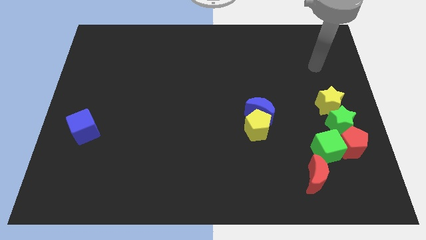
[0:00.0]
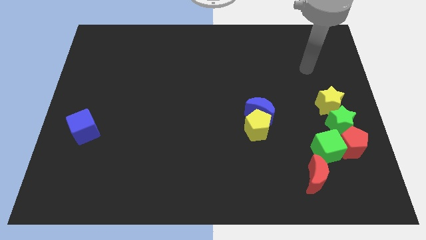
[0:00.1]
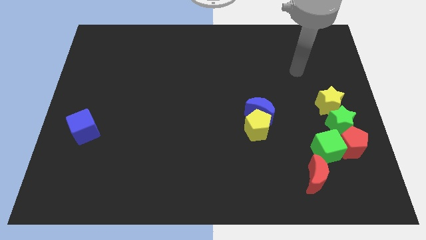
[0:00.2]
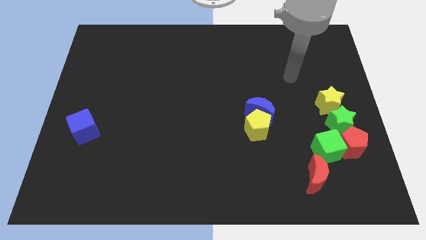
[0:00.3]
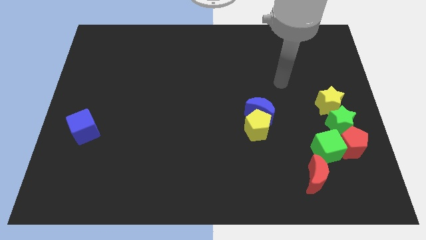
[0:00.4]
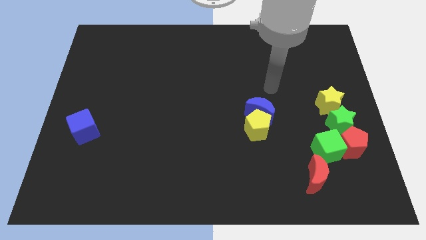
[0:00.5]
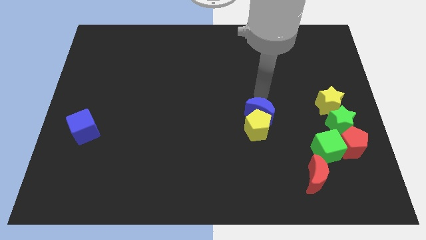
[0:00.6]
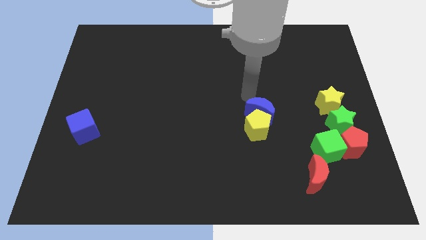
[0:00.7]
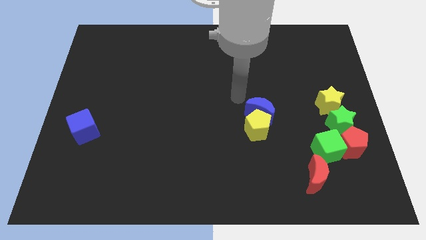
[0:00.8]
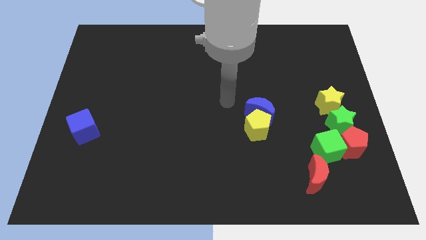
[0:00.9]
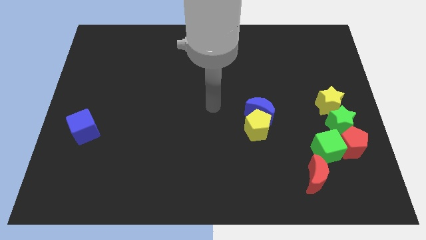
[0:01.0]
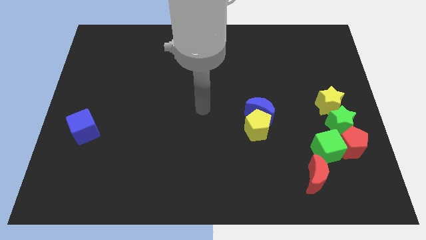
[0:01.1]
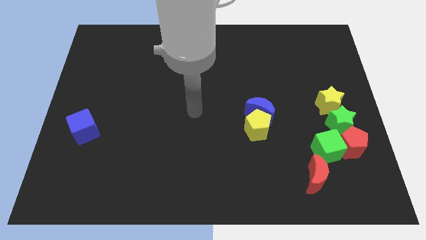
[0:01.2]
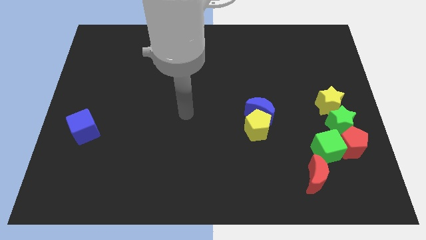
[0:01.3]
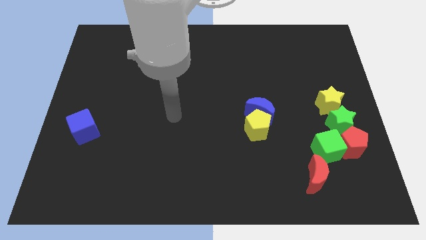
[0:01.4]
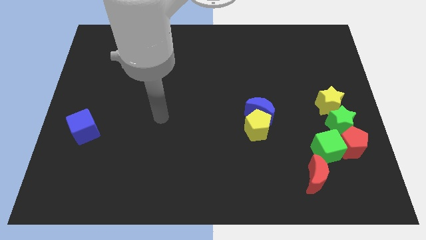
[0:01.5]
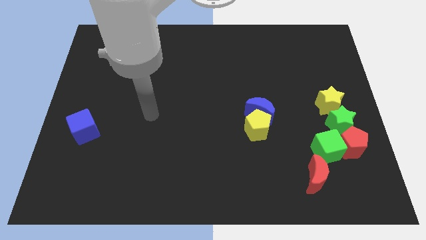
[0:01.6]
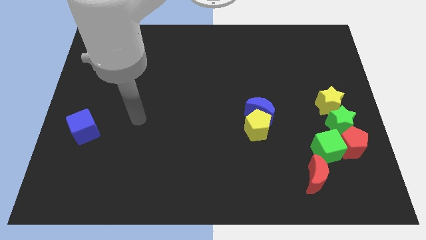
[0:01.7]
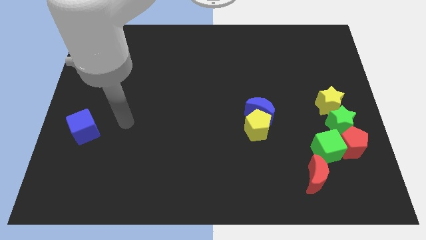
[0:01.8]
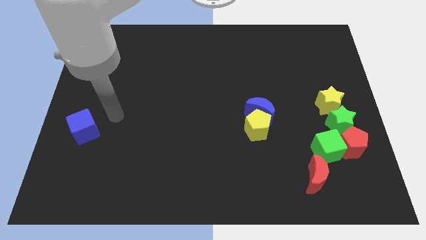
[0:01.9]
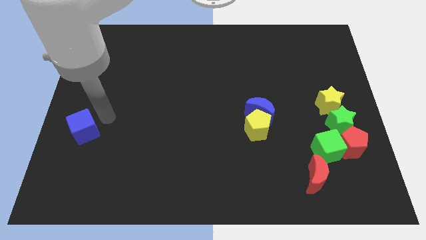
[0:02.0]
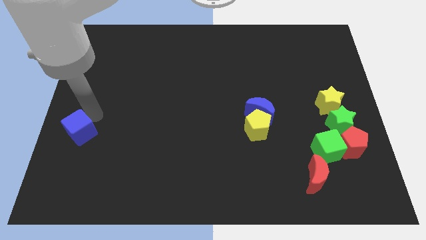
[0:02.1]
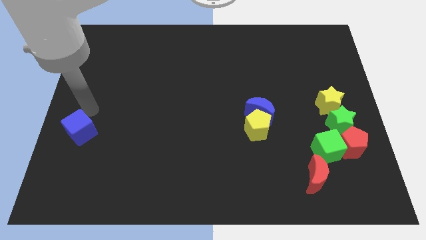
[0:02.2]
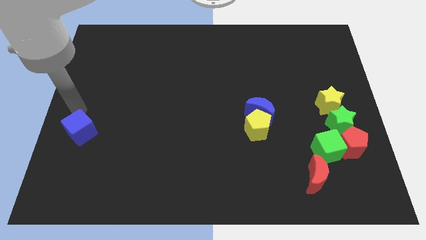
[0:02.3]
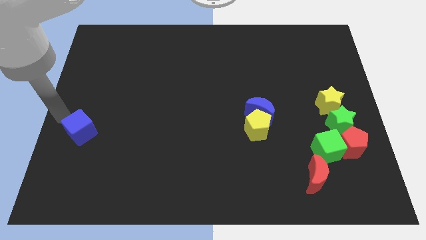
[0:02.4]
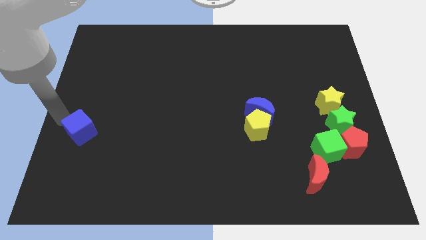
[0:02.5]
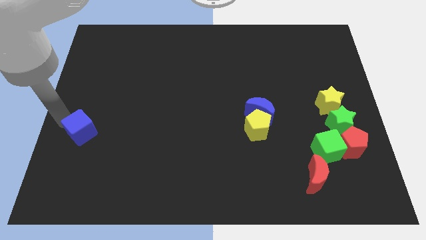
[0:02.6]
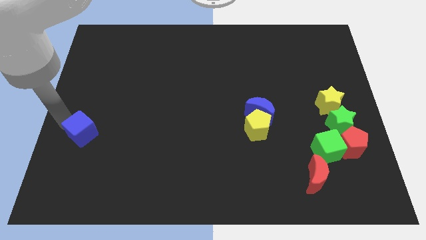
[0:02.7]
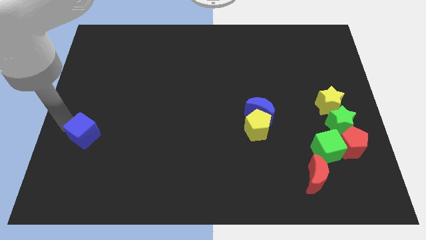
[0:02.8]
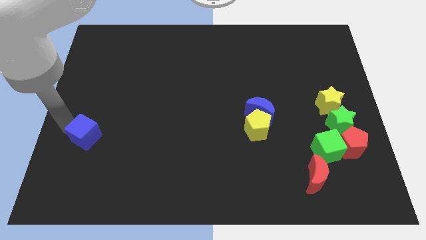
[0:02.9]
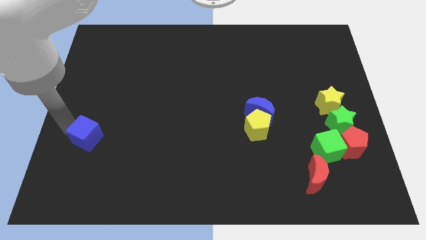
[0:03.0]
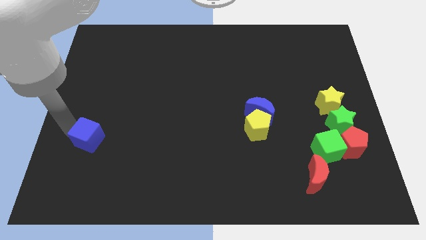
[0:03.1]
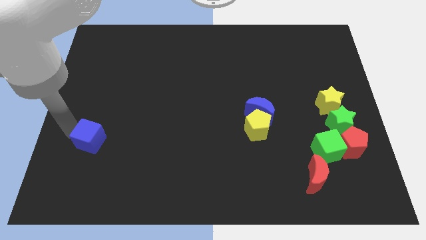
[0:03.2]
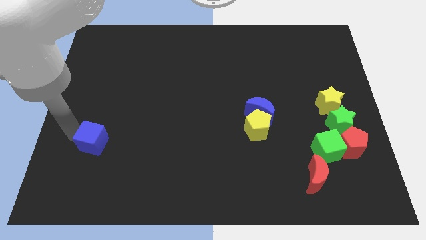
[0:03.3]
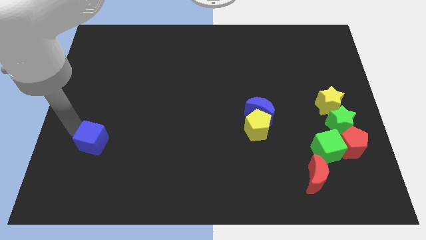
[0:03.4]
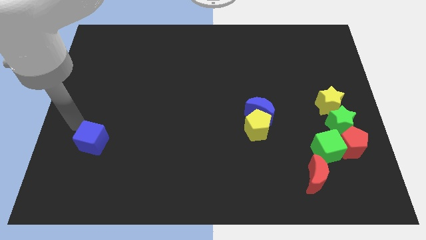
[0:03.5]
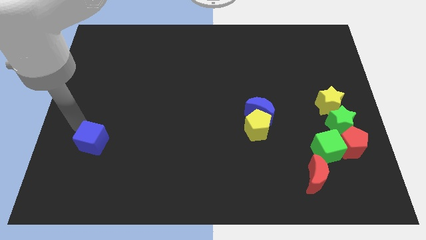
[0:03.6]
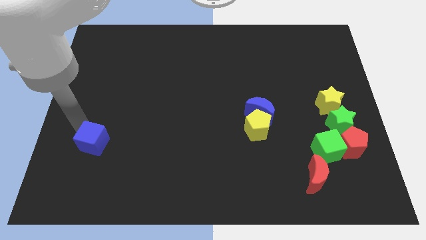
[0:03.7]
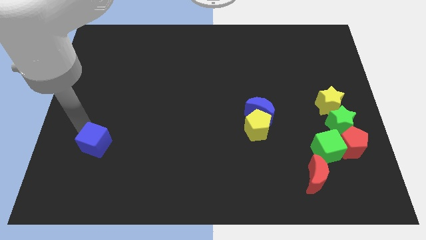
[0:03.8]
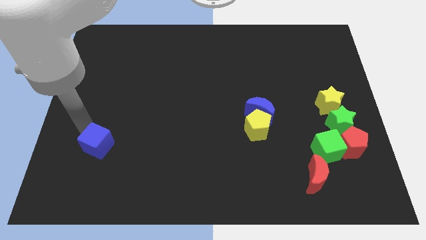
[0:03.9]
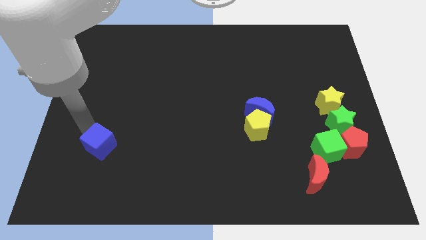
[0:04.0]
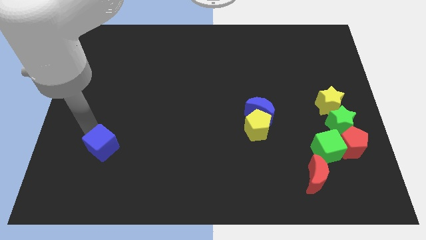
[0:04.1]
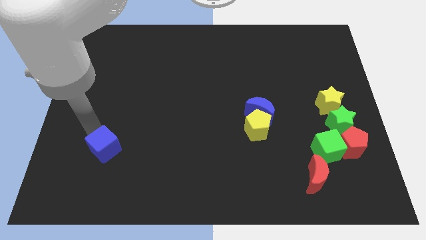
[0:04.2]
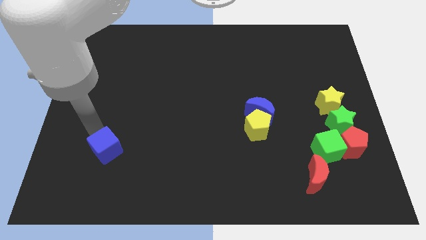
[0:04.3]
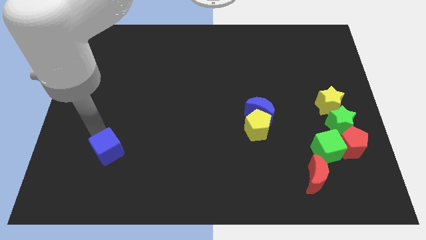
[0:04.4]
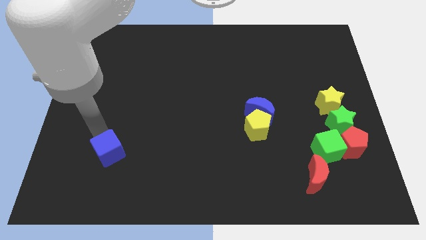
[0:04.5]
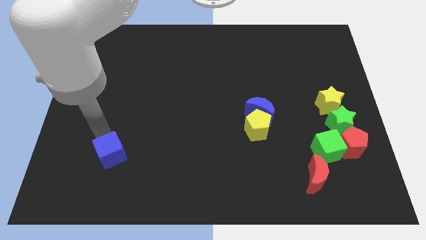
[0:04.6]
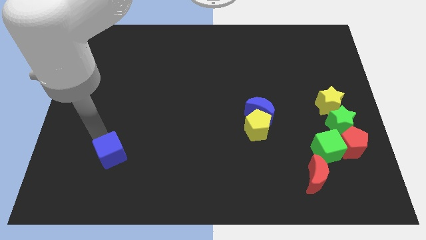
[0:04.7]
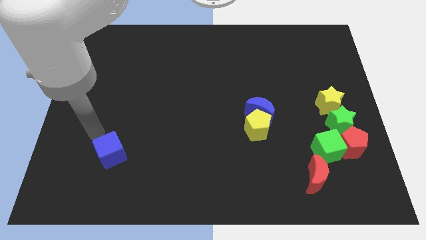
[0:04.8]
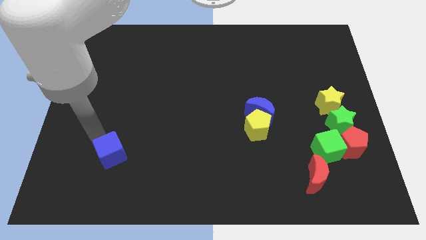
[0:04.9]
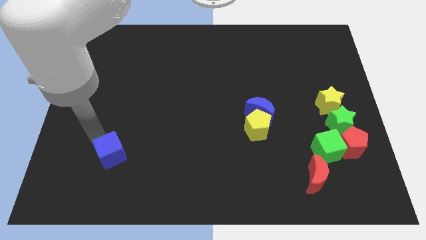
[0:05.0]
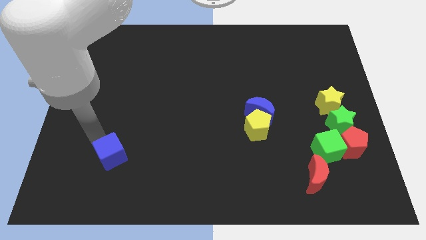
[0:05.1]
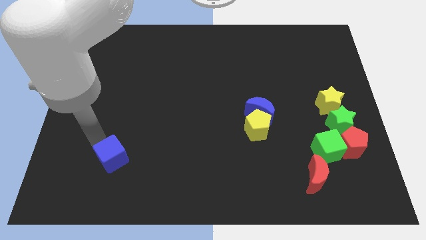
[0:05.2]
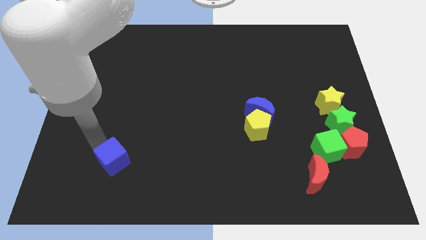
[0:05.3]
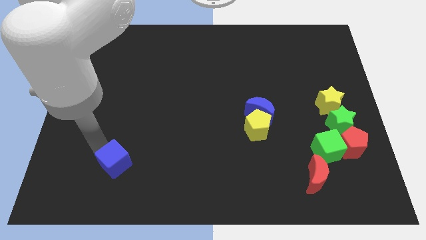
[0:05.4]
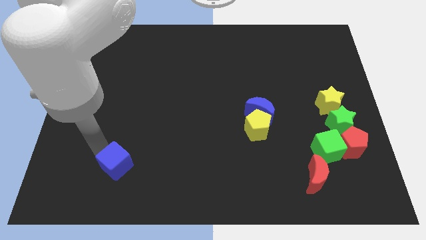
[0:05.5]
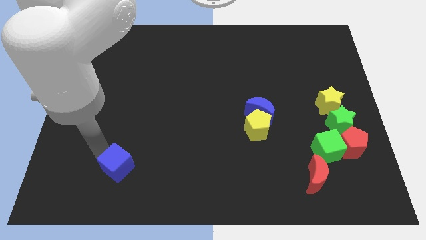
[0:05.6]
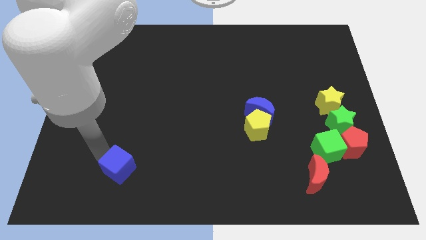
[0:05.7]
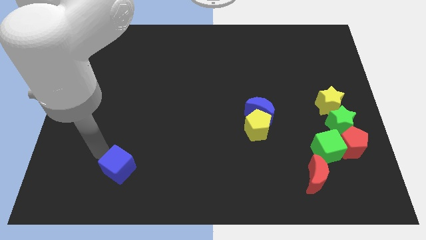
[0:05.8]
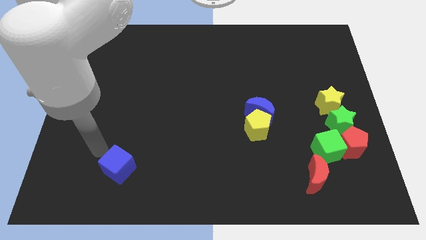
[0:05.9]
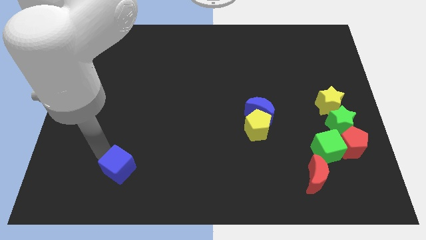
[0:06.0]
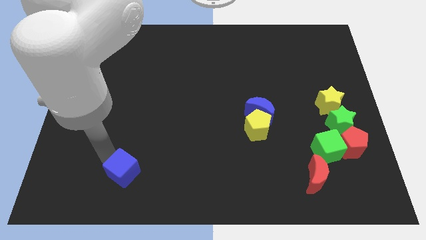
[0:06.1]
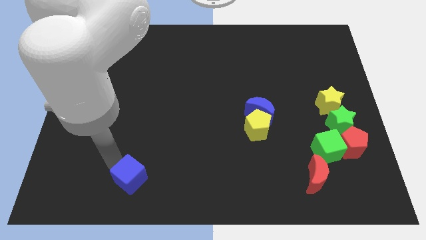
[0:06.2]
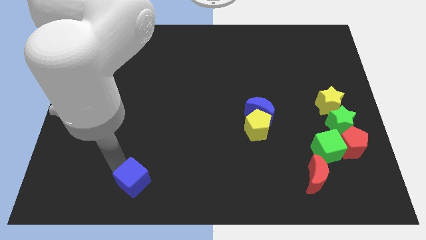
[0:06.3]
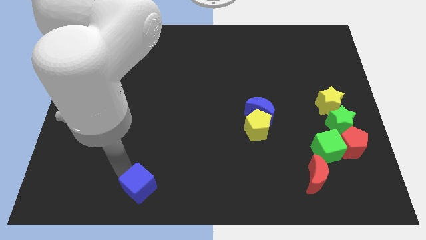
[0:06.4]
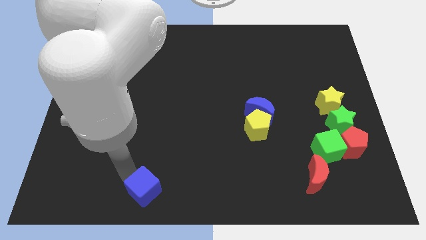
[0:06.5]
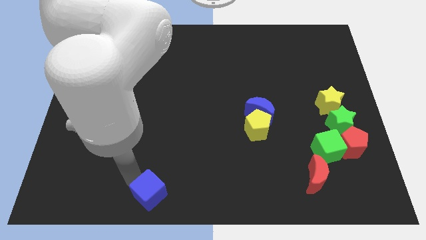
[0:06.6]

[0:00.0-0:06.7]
put the blue cube to the bottom

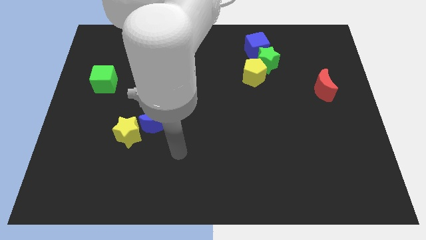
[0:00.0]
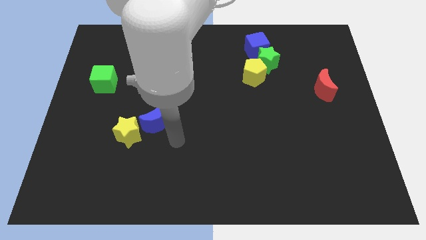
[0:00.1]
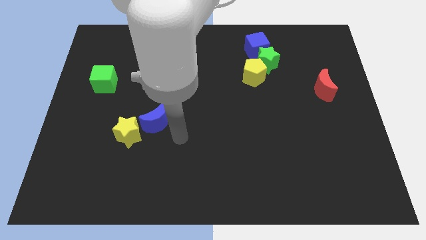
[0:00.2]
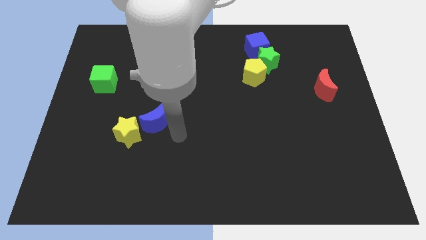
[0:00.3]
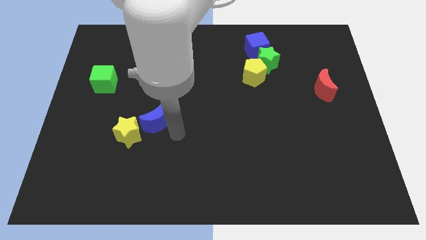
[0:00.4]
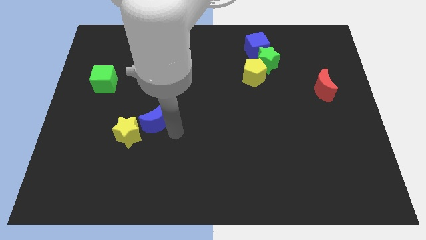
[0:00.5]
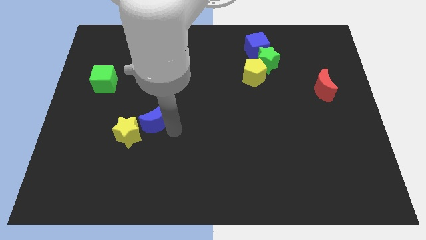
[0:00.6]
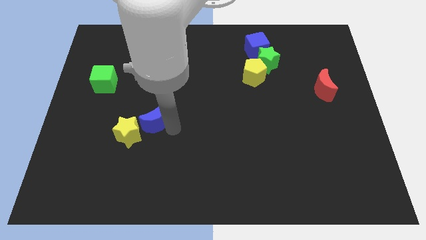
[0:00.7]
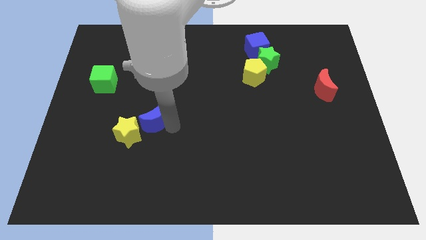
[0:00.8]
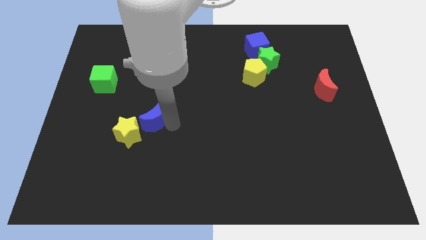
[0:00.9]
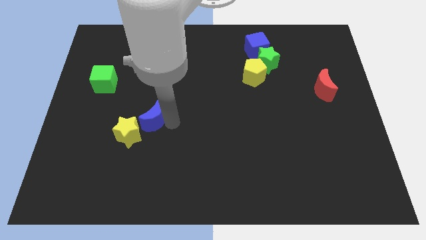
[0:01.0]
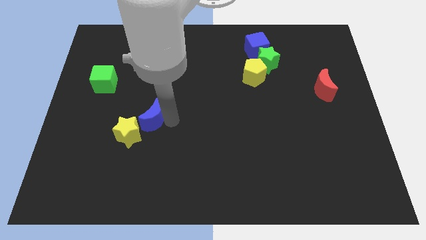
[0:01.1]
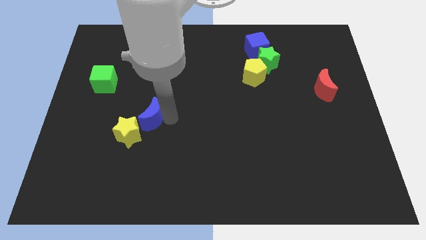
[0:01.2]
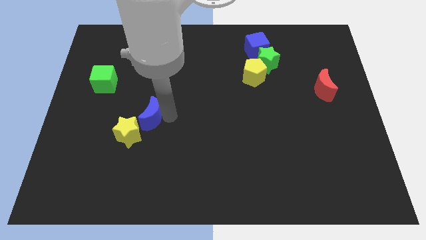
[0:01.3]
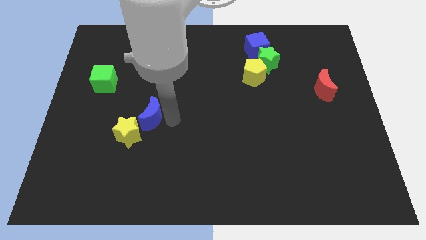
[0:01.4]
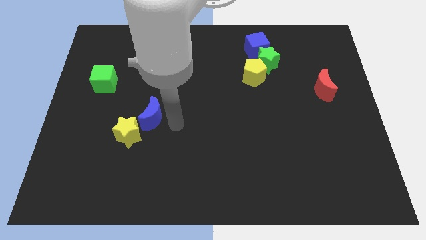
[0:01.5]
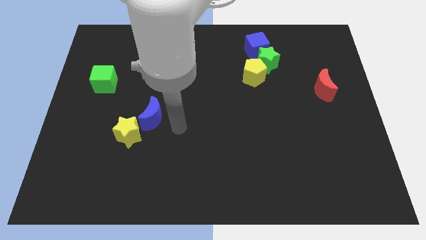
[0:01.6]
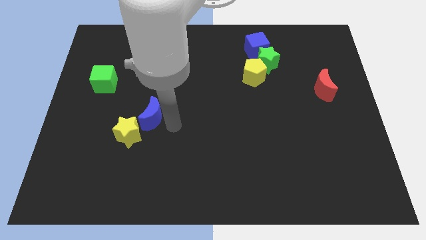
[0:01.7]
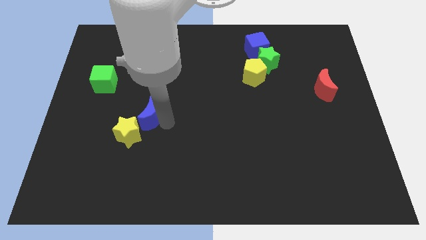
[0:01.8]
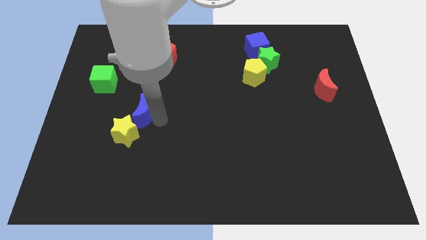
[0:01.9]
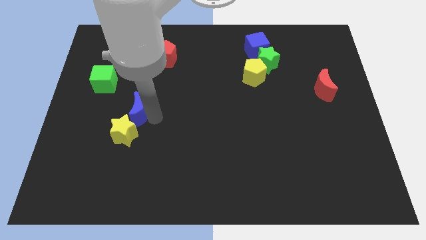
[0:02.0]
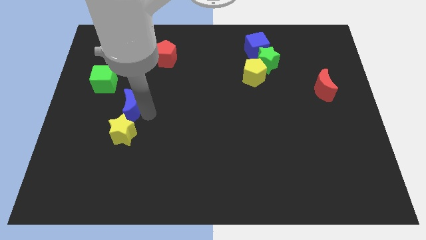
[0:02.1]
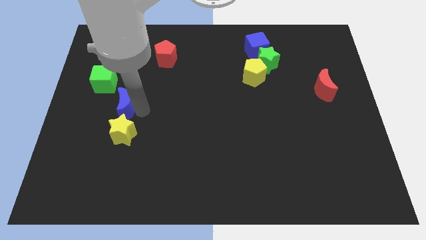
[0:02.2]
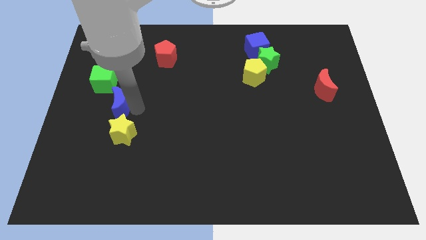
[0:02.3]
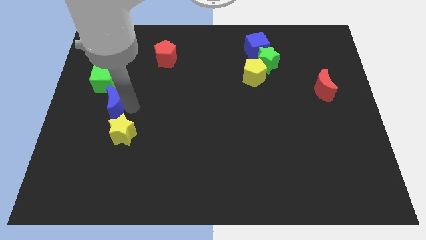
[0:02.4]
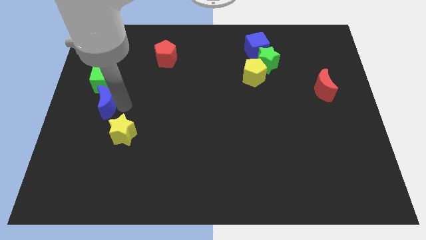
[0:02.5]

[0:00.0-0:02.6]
put the blue moon to the left side
